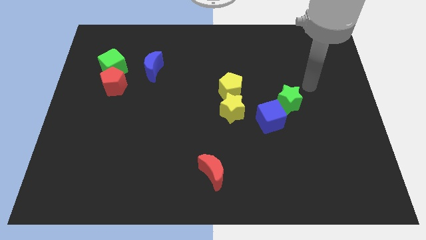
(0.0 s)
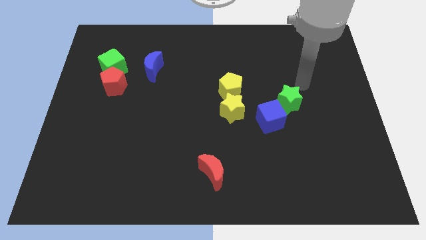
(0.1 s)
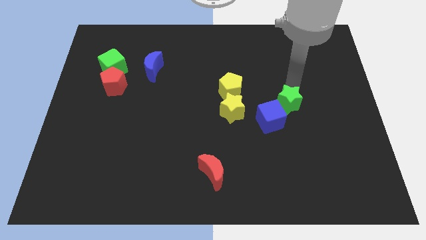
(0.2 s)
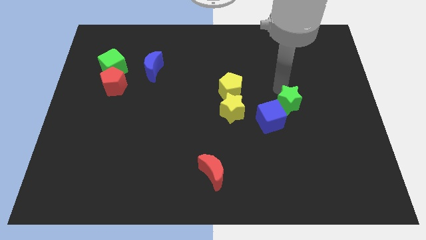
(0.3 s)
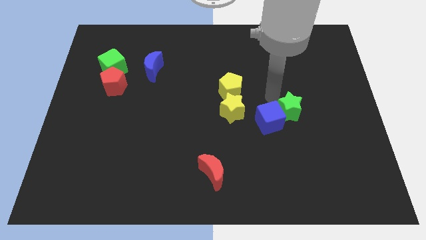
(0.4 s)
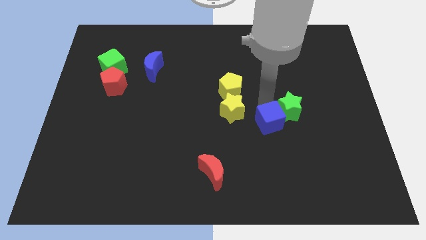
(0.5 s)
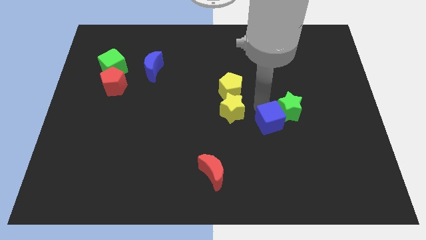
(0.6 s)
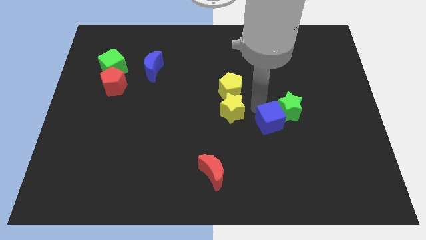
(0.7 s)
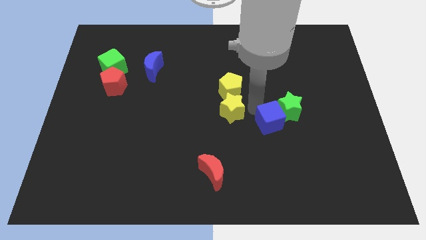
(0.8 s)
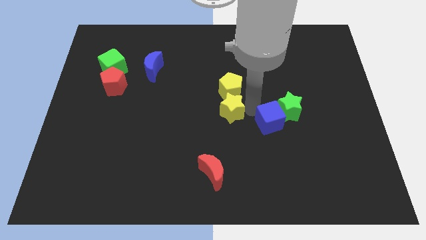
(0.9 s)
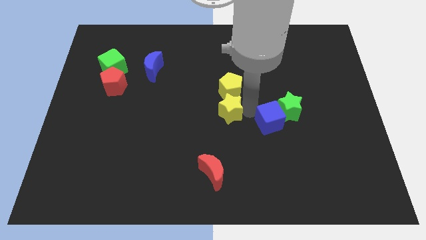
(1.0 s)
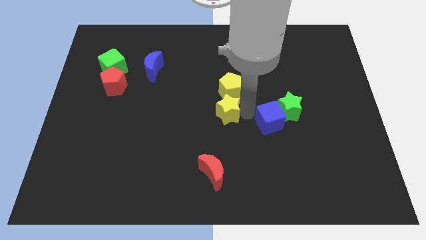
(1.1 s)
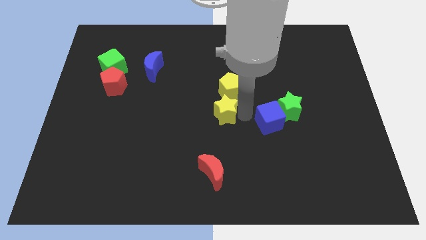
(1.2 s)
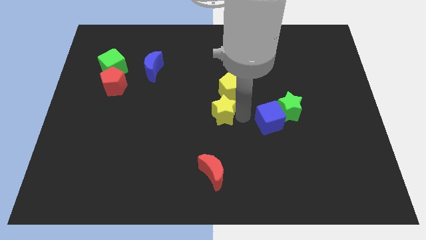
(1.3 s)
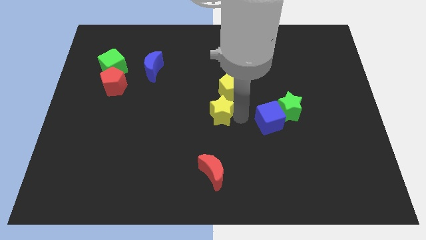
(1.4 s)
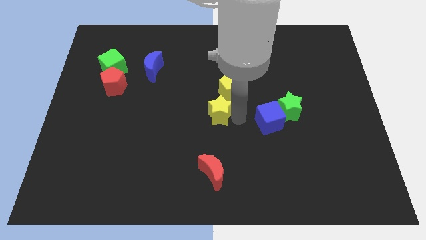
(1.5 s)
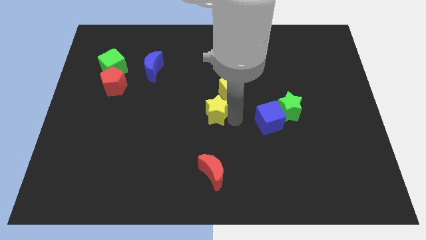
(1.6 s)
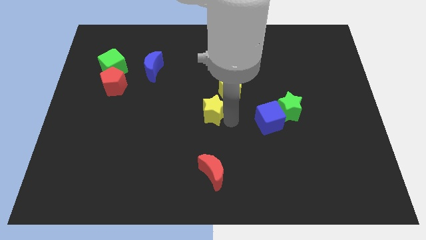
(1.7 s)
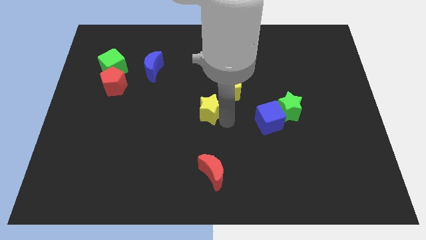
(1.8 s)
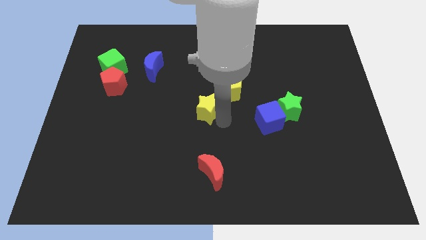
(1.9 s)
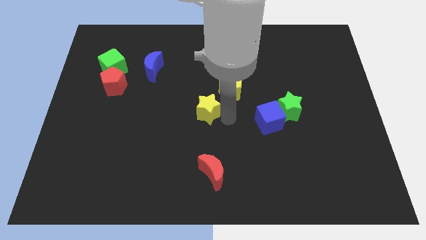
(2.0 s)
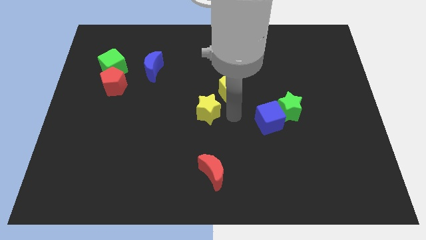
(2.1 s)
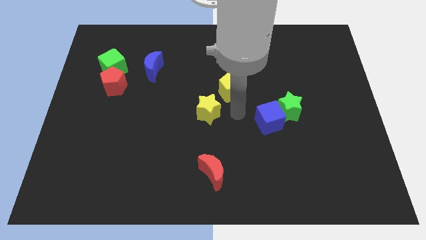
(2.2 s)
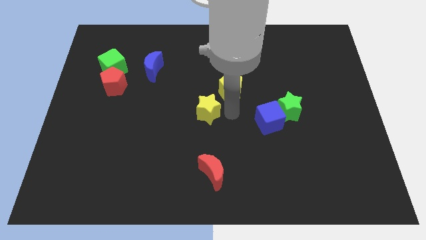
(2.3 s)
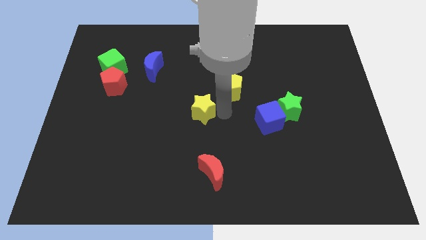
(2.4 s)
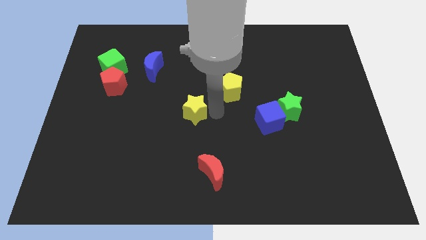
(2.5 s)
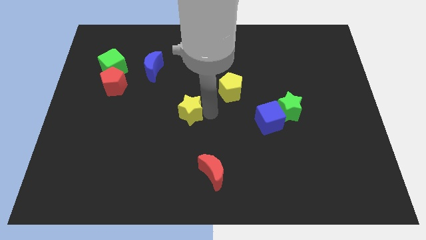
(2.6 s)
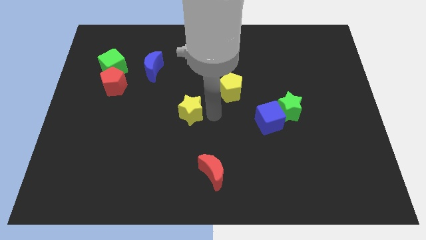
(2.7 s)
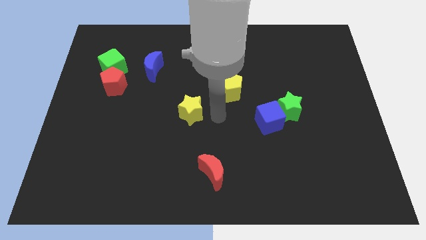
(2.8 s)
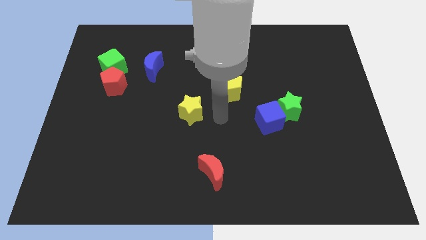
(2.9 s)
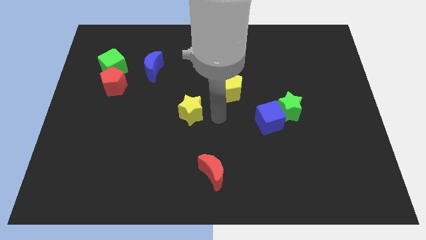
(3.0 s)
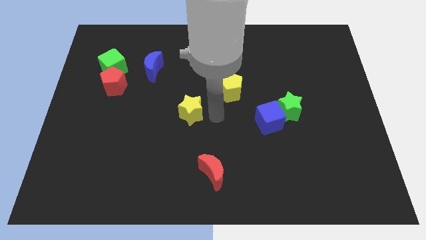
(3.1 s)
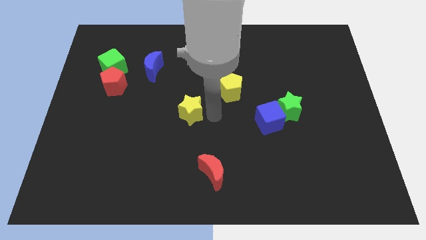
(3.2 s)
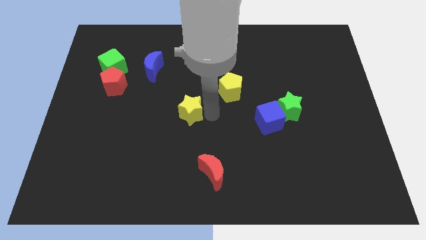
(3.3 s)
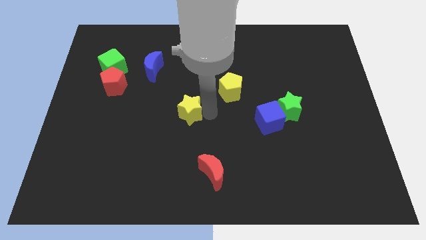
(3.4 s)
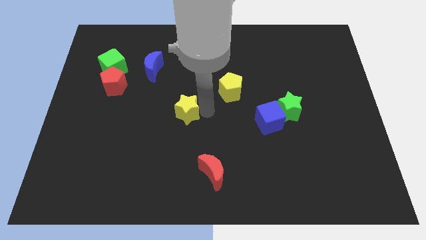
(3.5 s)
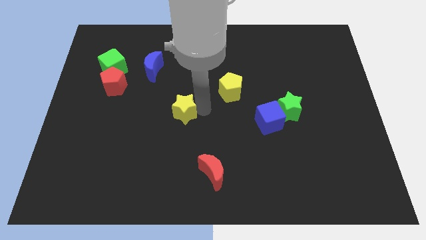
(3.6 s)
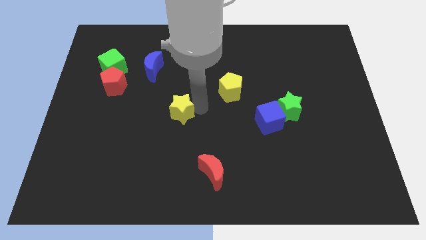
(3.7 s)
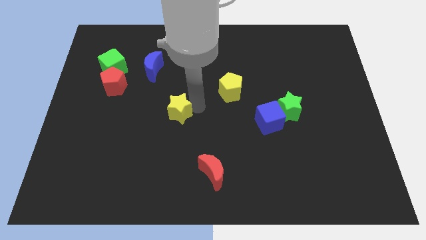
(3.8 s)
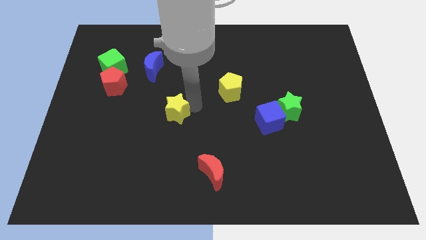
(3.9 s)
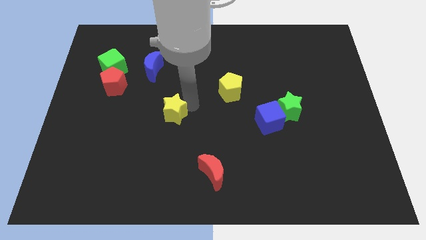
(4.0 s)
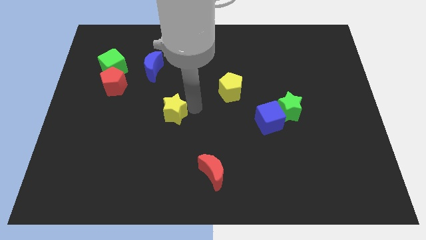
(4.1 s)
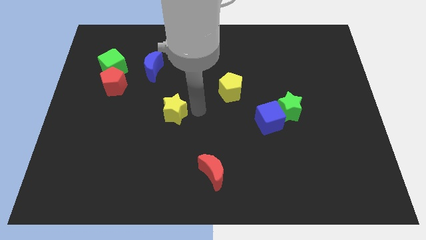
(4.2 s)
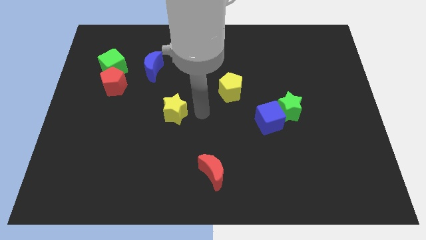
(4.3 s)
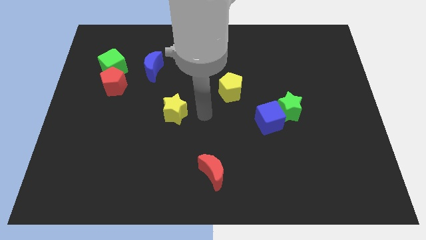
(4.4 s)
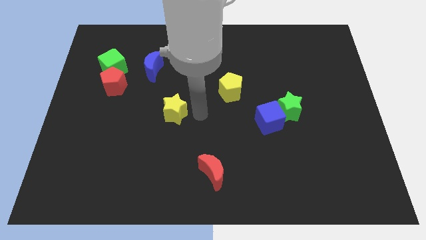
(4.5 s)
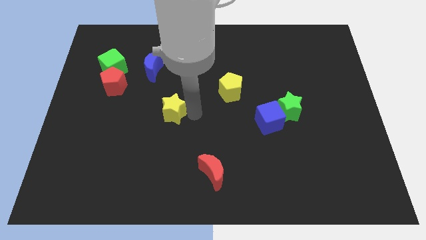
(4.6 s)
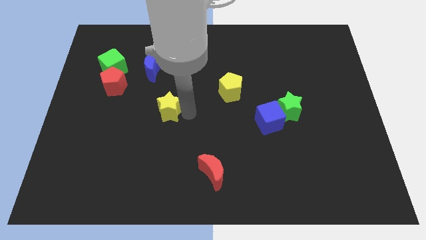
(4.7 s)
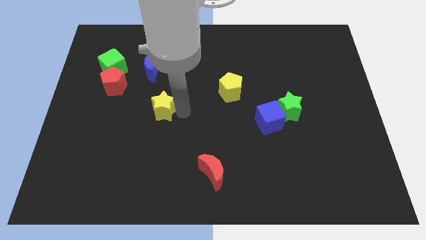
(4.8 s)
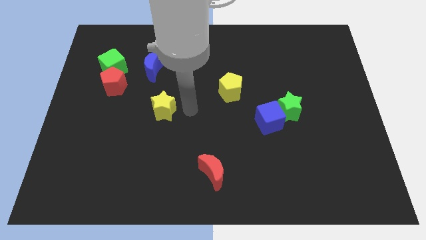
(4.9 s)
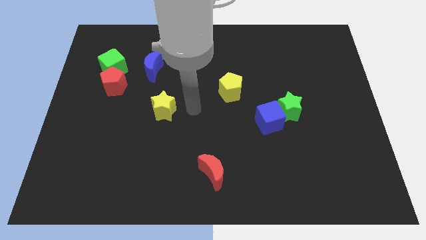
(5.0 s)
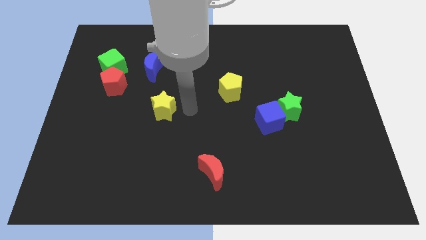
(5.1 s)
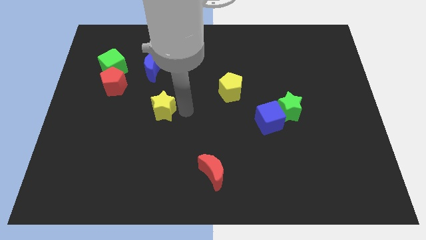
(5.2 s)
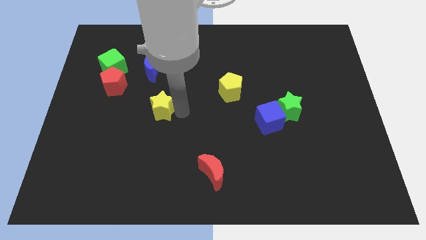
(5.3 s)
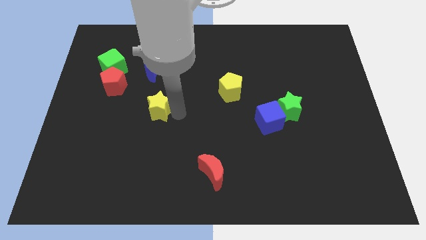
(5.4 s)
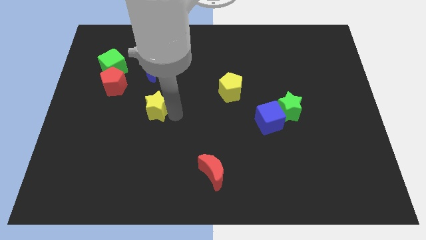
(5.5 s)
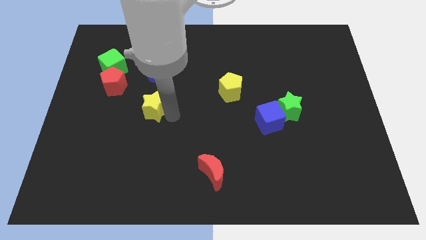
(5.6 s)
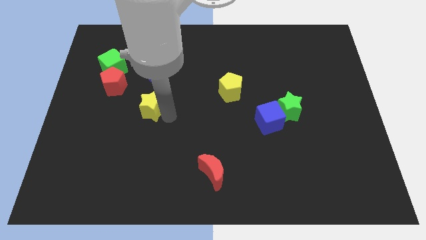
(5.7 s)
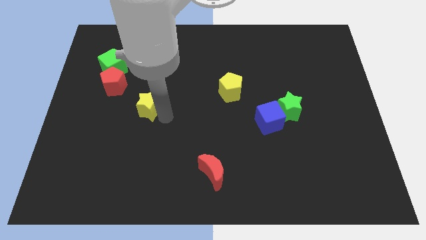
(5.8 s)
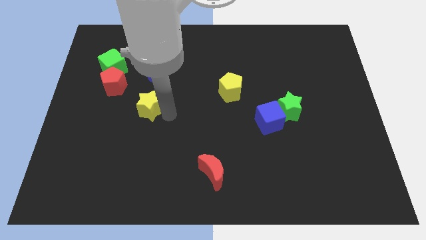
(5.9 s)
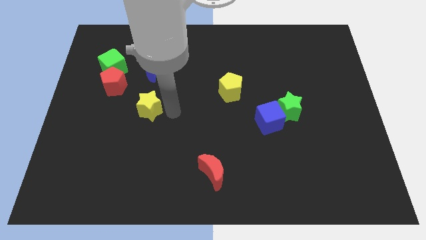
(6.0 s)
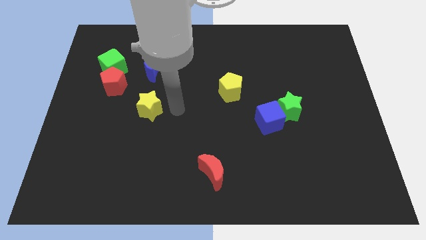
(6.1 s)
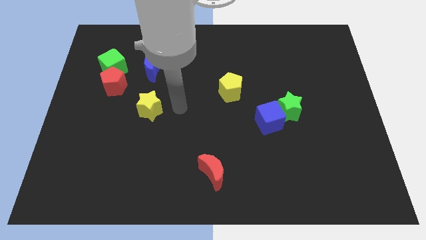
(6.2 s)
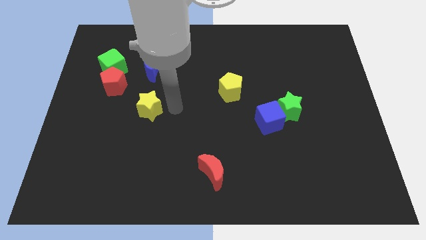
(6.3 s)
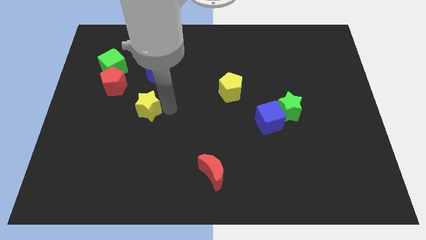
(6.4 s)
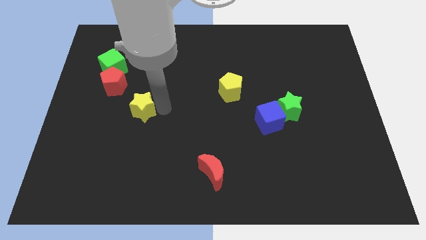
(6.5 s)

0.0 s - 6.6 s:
move the yellow star to the left

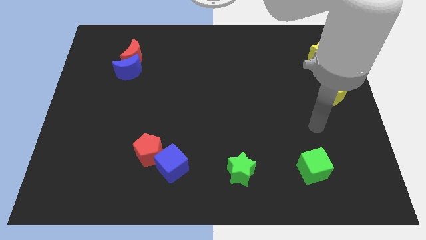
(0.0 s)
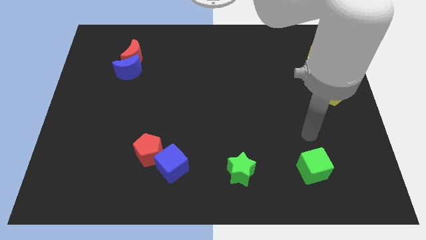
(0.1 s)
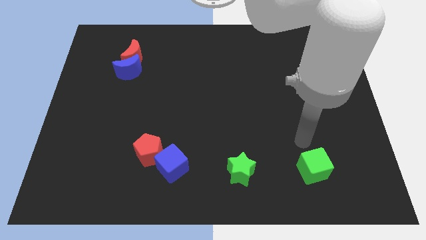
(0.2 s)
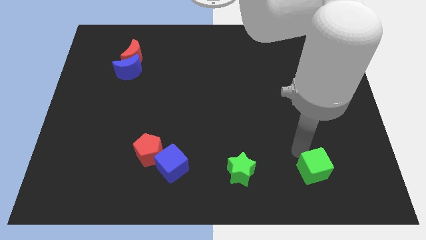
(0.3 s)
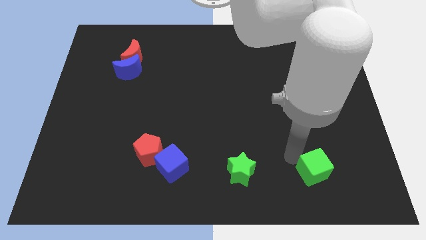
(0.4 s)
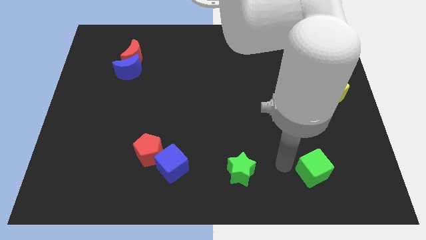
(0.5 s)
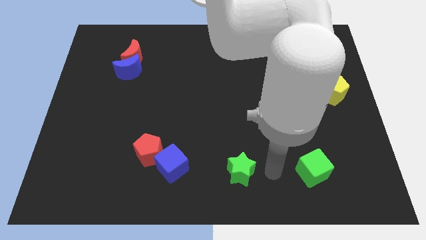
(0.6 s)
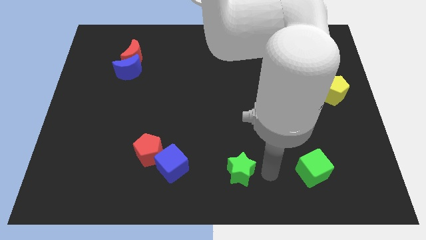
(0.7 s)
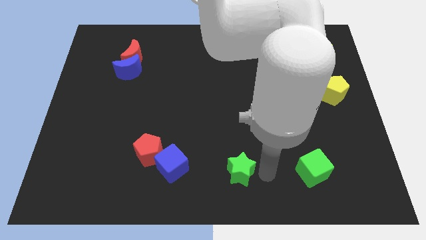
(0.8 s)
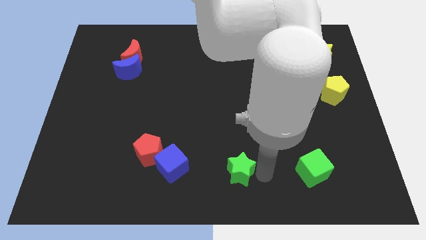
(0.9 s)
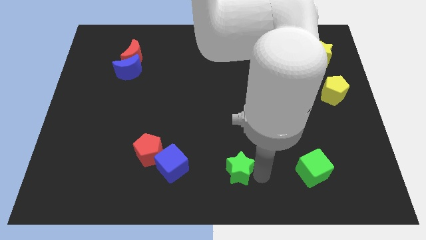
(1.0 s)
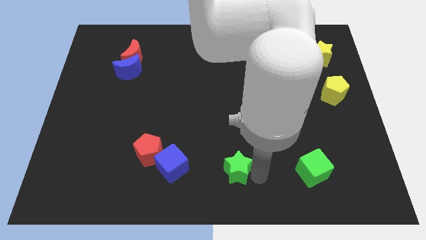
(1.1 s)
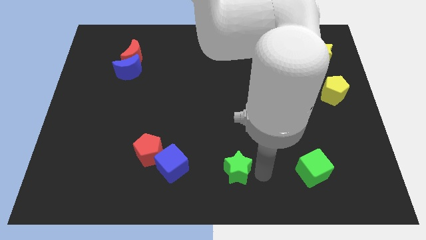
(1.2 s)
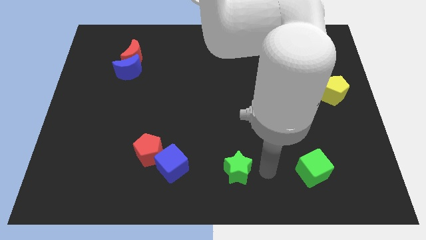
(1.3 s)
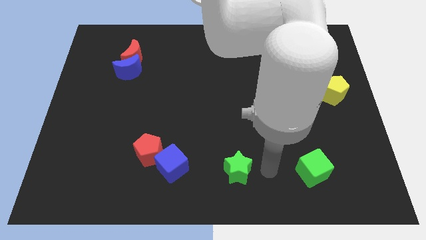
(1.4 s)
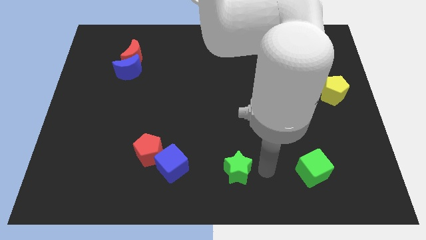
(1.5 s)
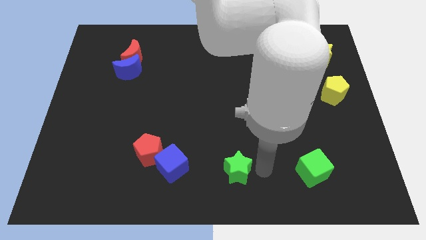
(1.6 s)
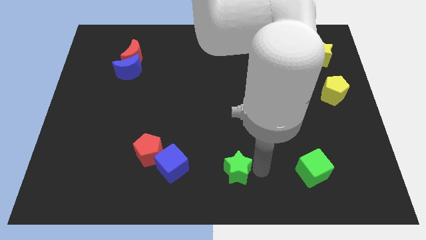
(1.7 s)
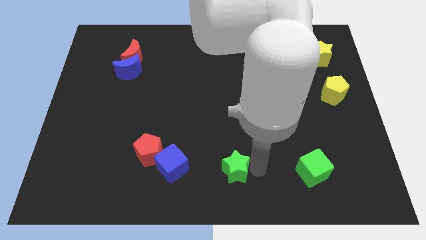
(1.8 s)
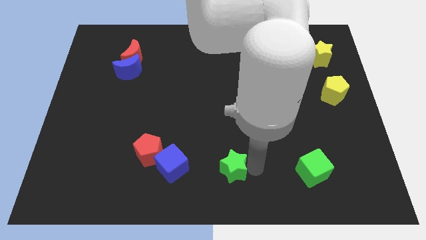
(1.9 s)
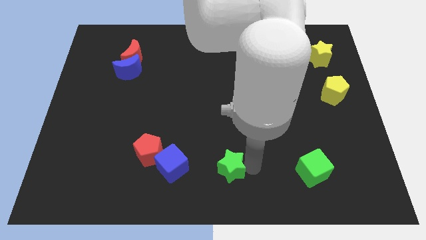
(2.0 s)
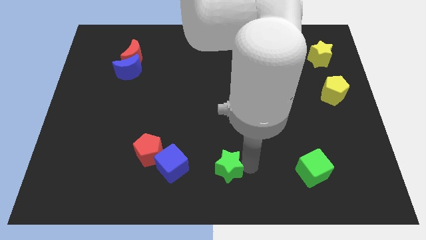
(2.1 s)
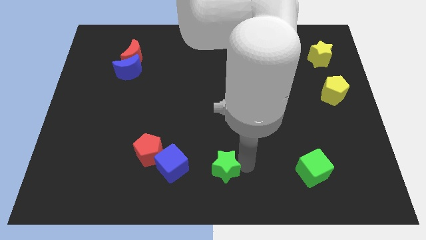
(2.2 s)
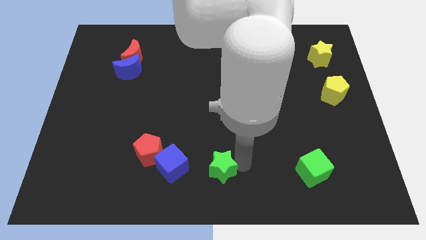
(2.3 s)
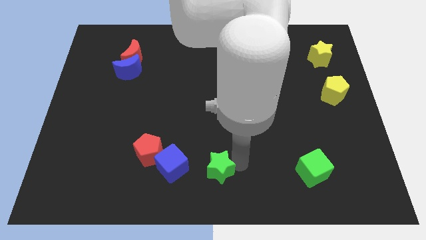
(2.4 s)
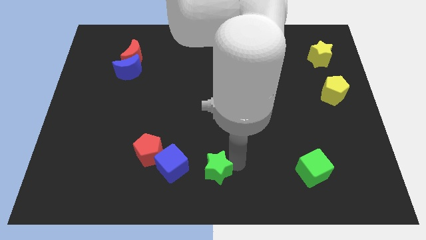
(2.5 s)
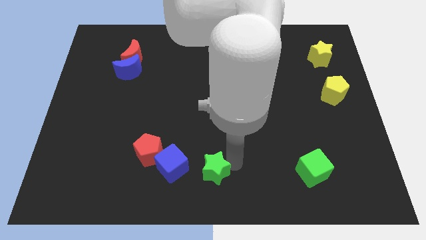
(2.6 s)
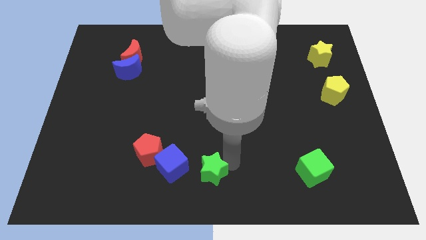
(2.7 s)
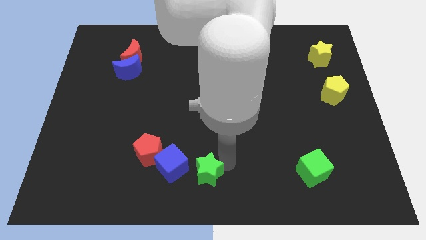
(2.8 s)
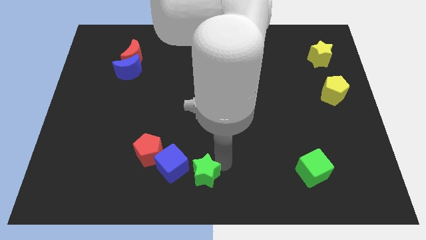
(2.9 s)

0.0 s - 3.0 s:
move the green star to the left somewhat
